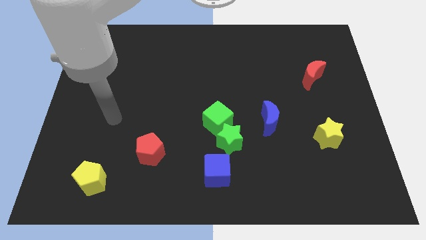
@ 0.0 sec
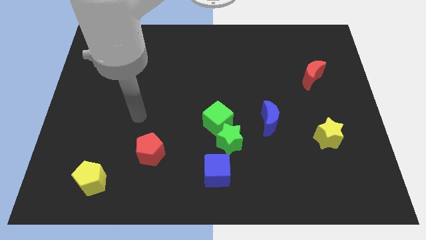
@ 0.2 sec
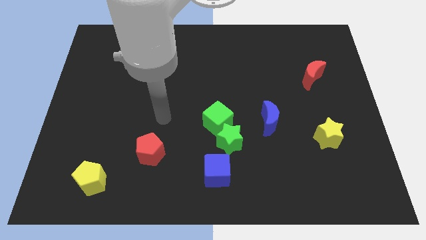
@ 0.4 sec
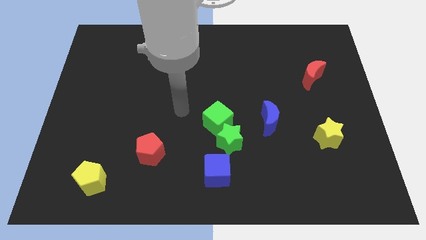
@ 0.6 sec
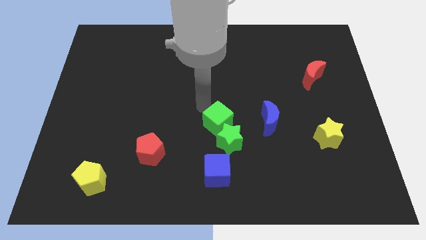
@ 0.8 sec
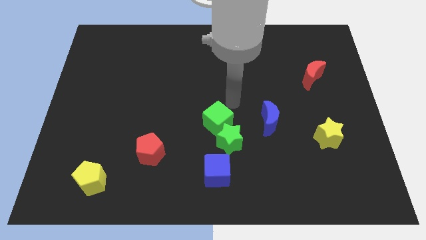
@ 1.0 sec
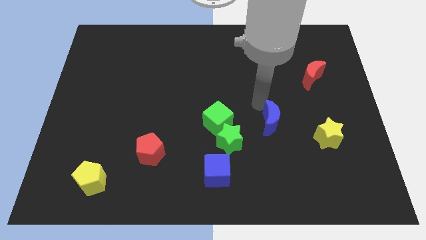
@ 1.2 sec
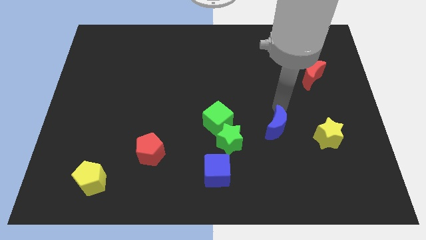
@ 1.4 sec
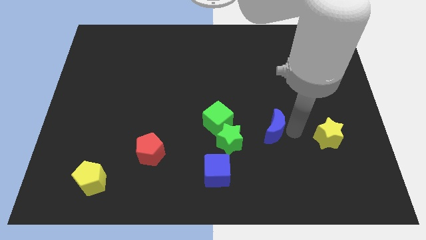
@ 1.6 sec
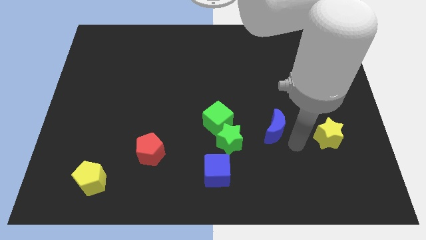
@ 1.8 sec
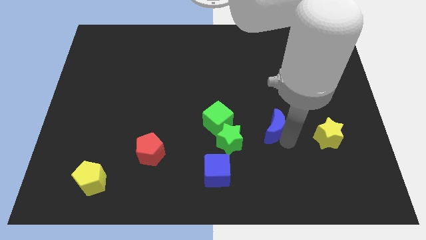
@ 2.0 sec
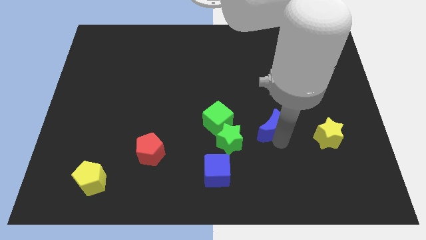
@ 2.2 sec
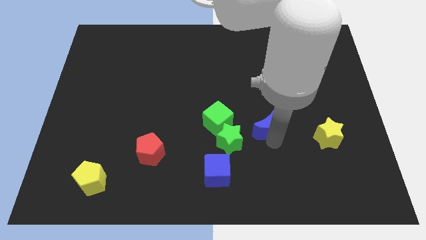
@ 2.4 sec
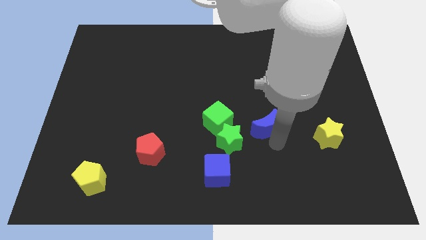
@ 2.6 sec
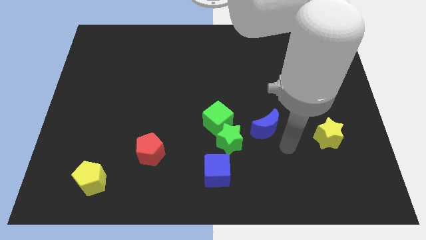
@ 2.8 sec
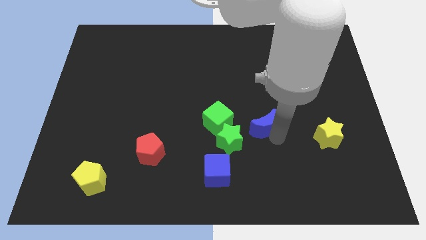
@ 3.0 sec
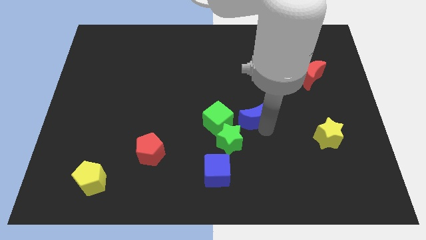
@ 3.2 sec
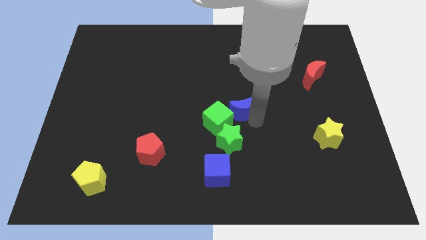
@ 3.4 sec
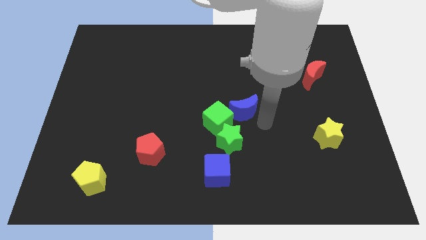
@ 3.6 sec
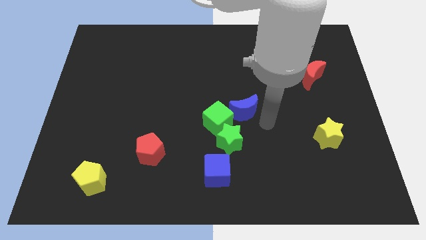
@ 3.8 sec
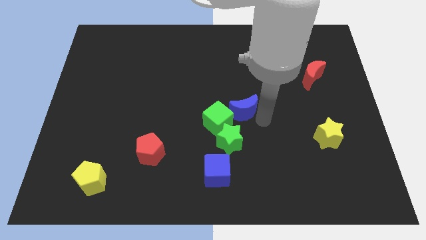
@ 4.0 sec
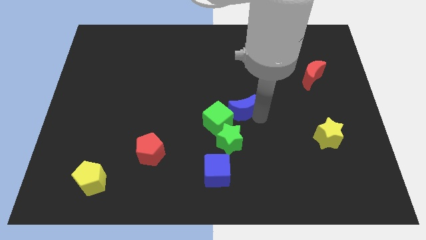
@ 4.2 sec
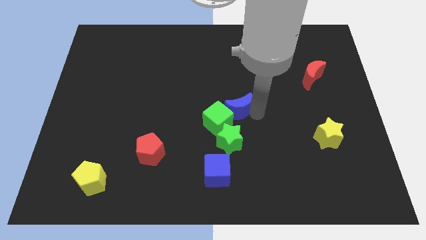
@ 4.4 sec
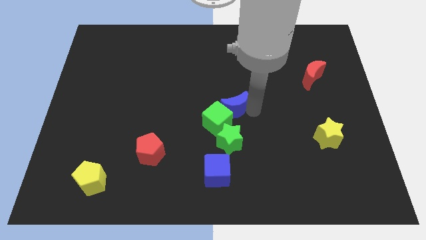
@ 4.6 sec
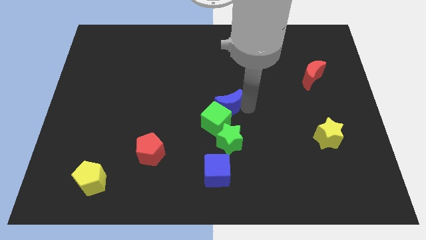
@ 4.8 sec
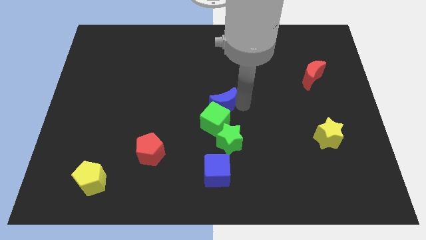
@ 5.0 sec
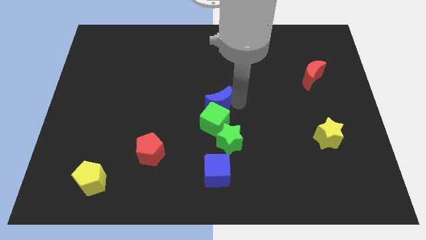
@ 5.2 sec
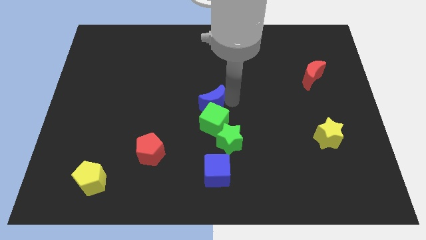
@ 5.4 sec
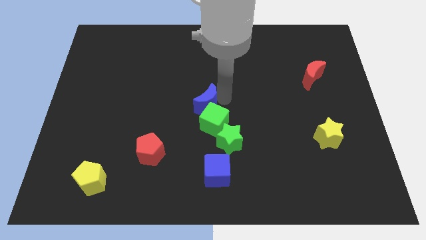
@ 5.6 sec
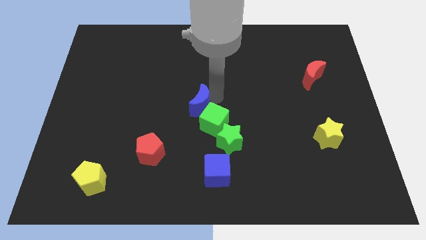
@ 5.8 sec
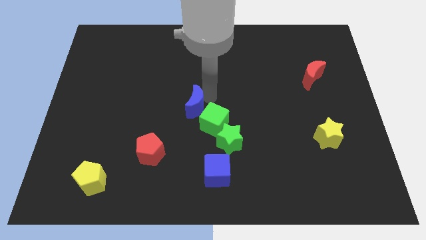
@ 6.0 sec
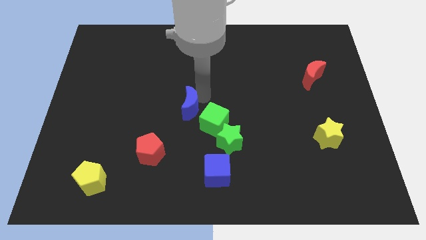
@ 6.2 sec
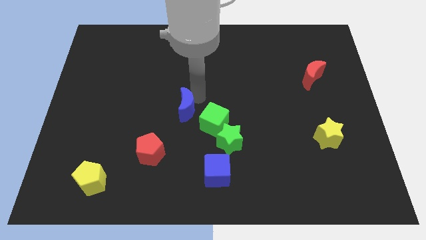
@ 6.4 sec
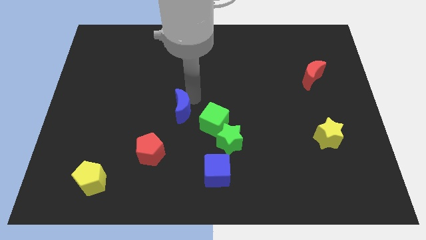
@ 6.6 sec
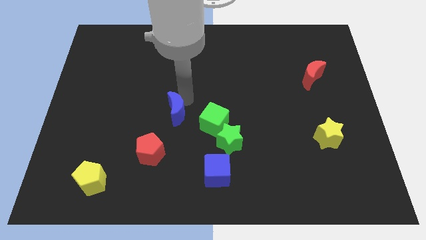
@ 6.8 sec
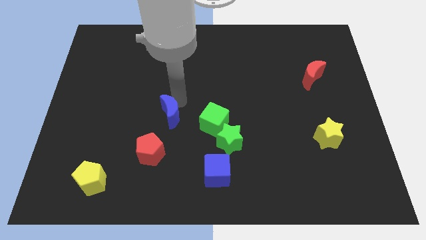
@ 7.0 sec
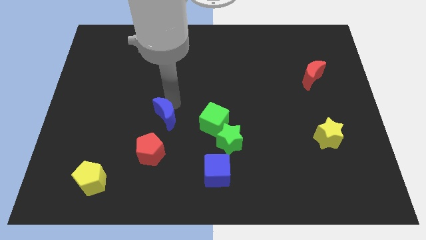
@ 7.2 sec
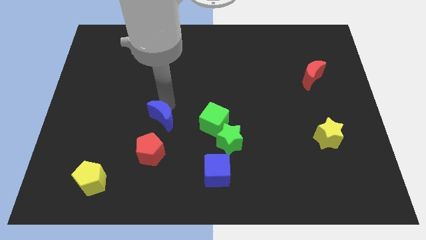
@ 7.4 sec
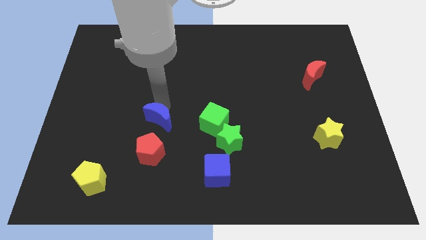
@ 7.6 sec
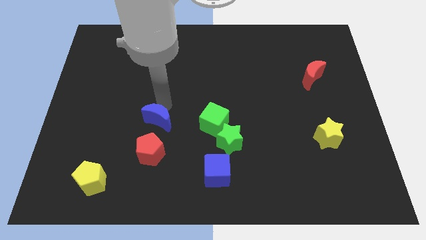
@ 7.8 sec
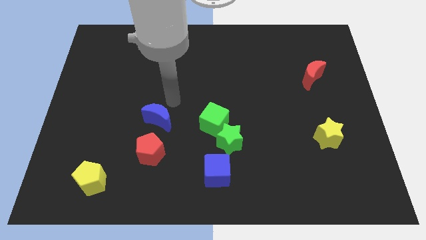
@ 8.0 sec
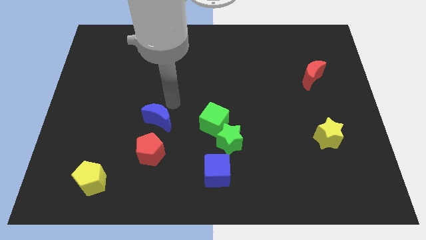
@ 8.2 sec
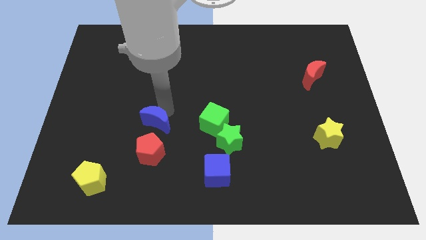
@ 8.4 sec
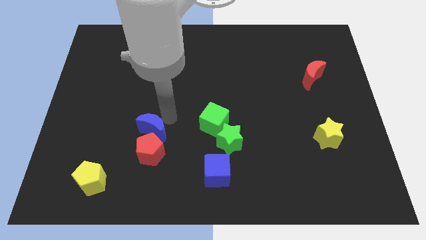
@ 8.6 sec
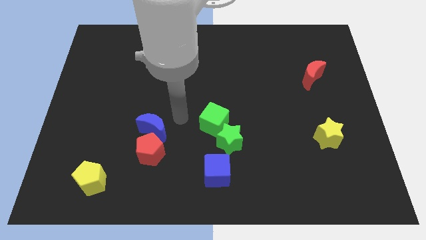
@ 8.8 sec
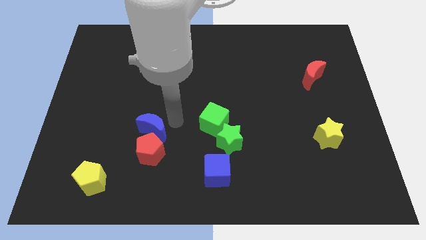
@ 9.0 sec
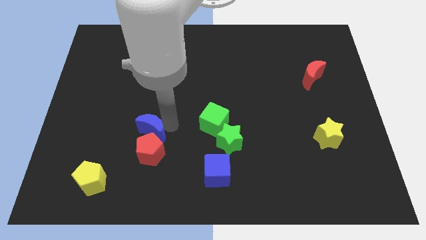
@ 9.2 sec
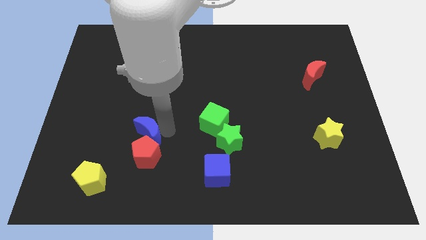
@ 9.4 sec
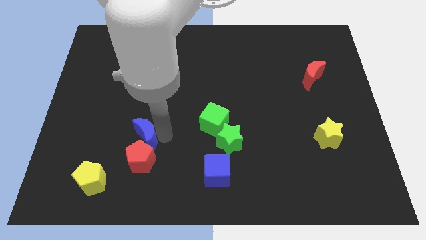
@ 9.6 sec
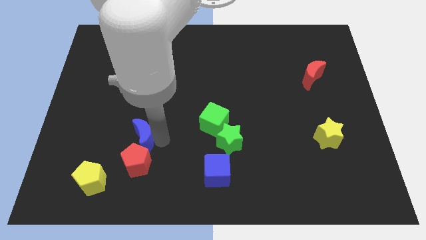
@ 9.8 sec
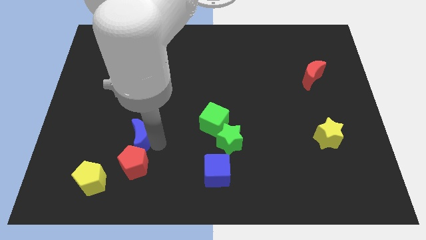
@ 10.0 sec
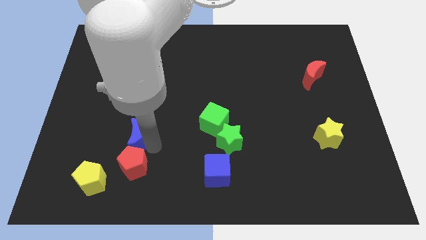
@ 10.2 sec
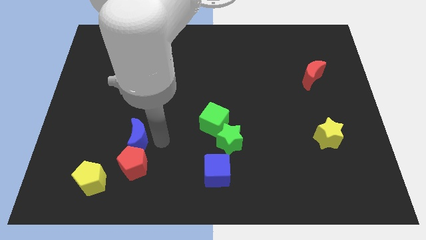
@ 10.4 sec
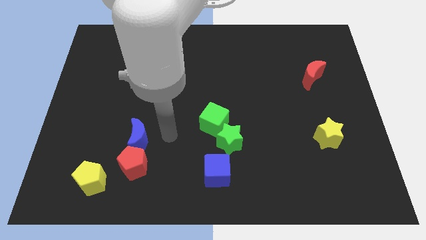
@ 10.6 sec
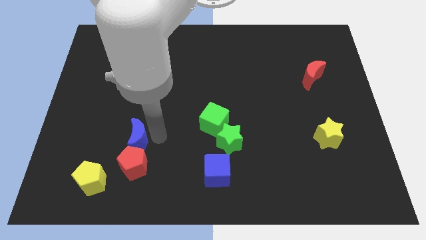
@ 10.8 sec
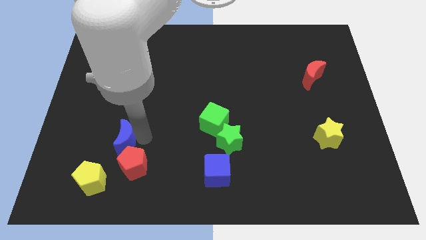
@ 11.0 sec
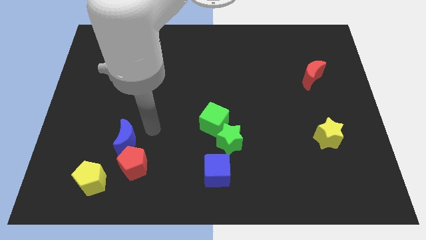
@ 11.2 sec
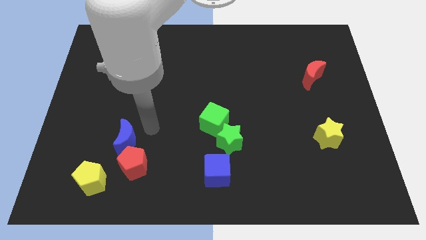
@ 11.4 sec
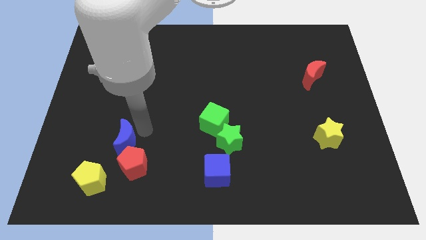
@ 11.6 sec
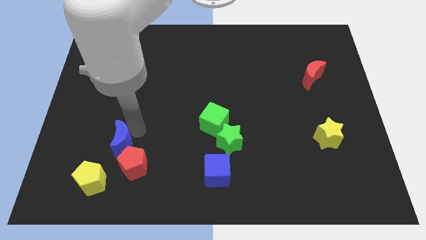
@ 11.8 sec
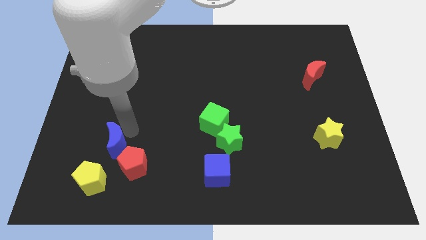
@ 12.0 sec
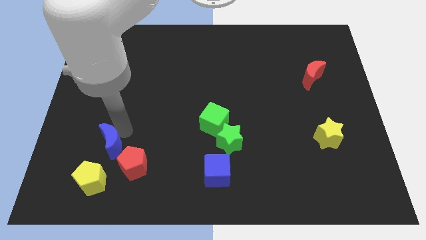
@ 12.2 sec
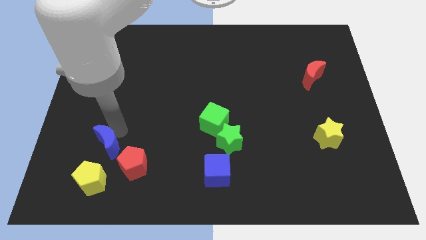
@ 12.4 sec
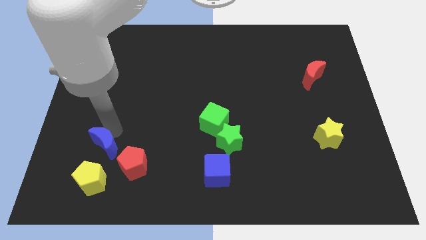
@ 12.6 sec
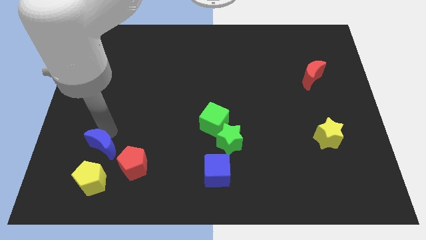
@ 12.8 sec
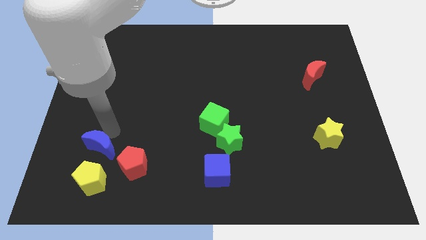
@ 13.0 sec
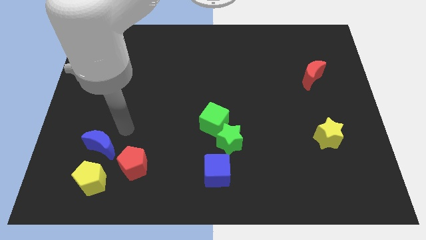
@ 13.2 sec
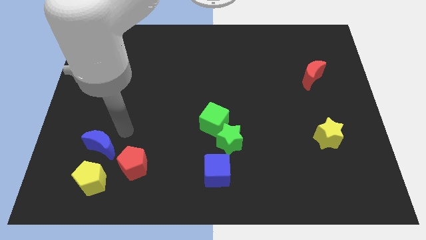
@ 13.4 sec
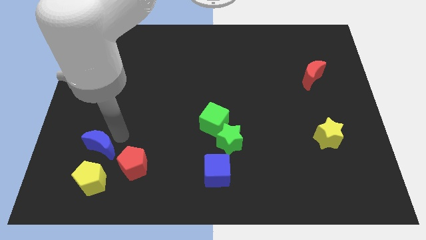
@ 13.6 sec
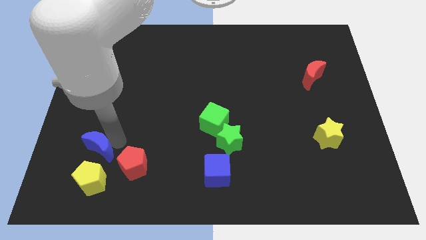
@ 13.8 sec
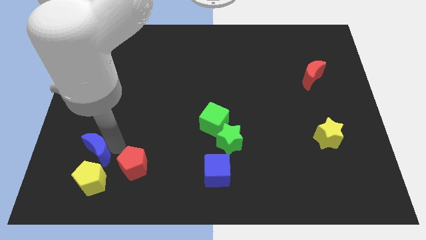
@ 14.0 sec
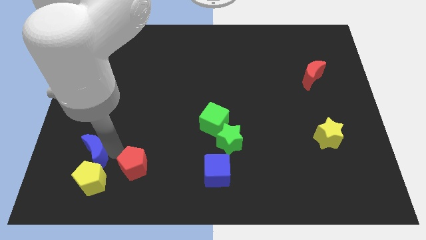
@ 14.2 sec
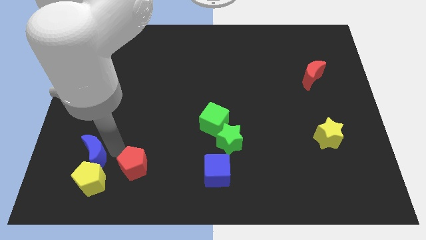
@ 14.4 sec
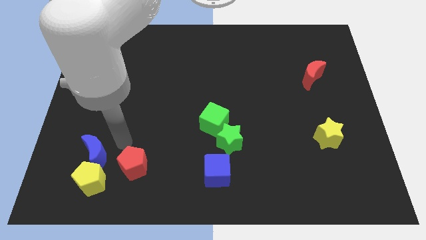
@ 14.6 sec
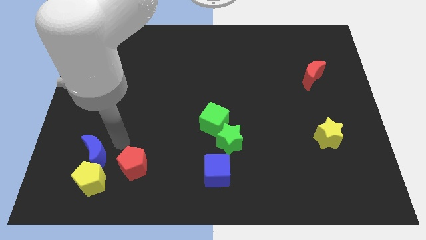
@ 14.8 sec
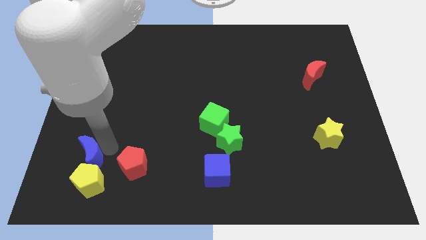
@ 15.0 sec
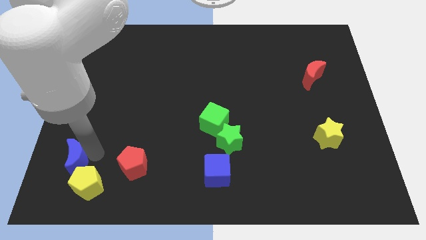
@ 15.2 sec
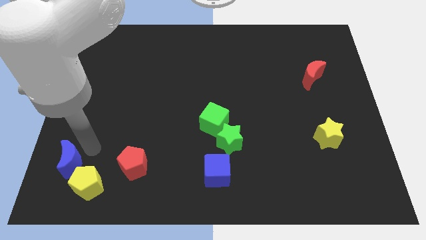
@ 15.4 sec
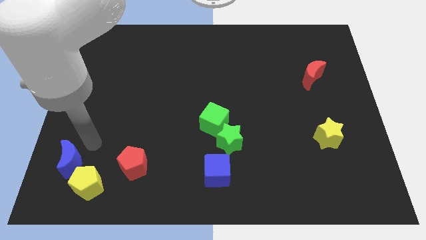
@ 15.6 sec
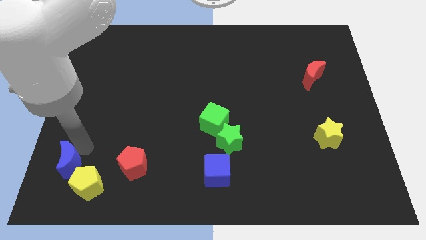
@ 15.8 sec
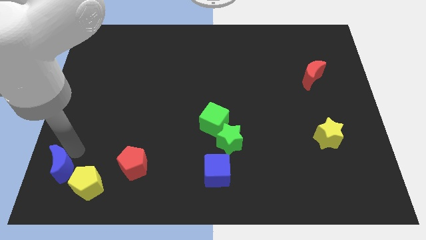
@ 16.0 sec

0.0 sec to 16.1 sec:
move the blue moon to the bottom left corner
